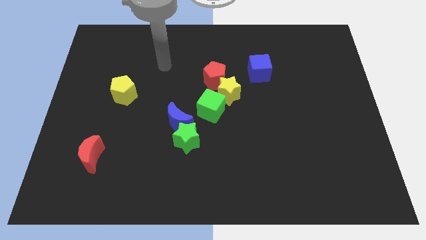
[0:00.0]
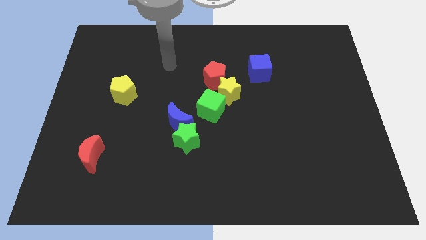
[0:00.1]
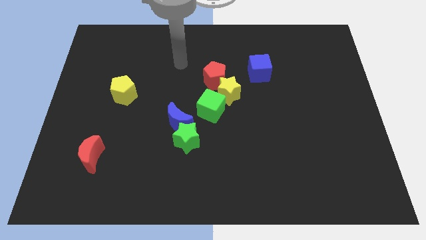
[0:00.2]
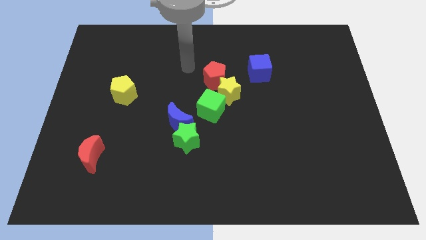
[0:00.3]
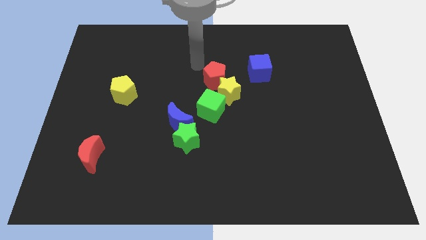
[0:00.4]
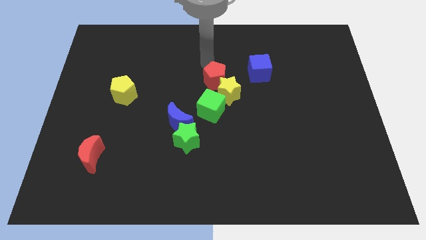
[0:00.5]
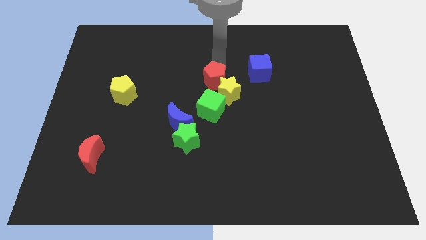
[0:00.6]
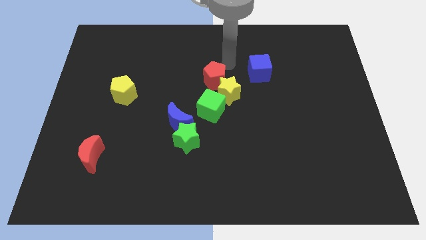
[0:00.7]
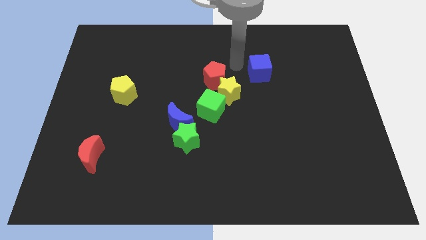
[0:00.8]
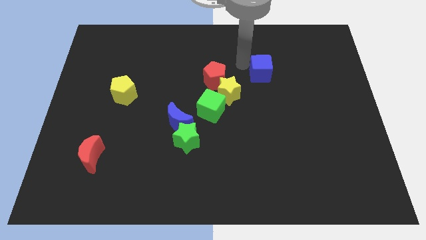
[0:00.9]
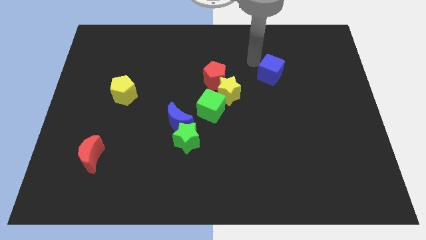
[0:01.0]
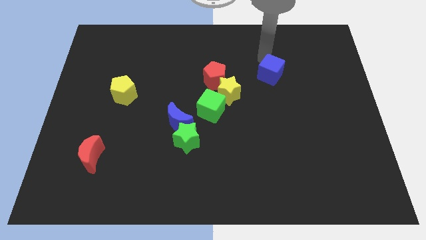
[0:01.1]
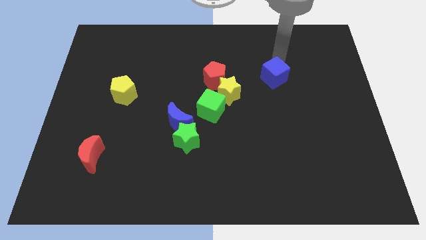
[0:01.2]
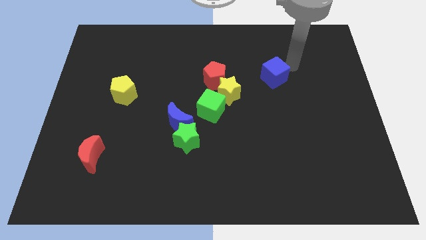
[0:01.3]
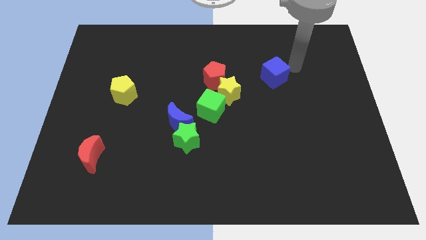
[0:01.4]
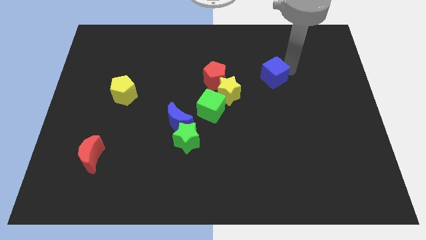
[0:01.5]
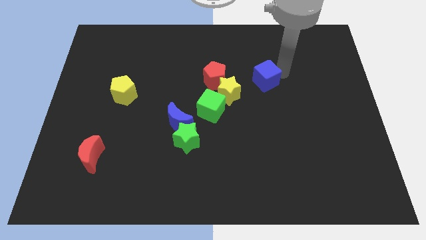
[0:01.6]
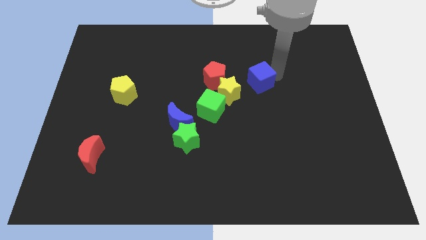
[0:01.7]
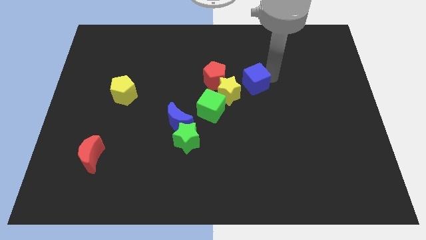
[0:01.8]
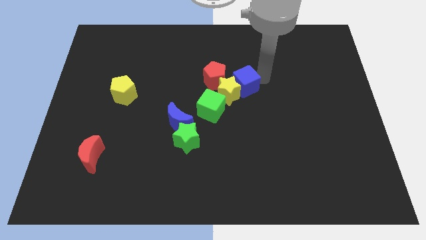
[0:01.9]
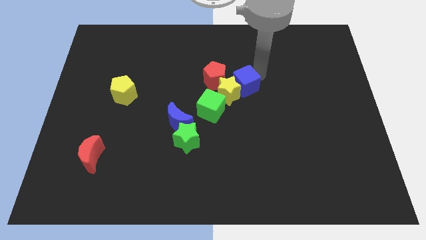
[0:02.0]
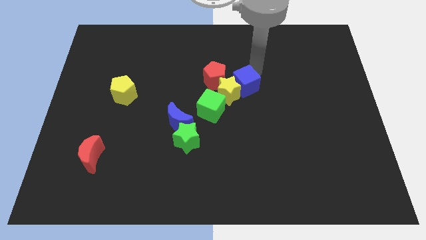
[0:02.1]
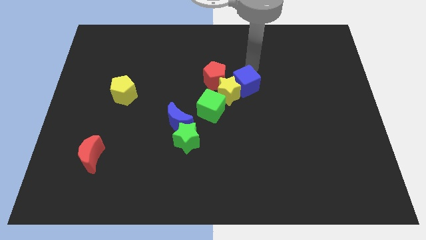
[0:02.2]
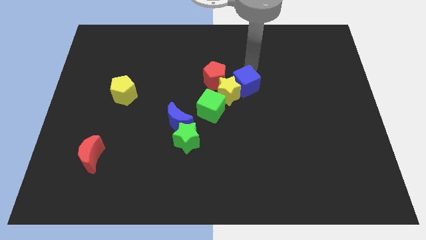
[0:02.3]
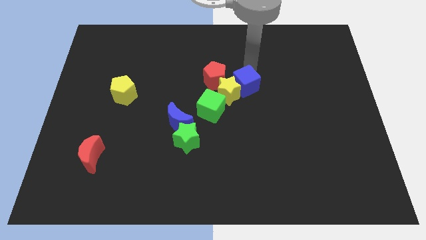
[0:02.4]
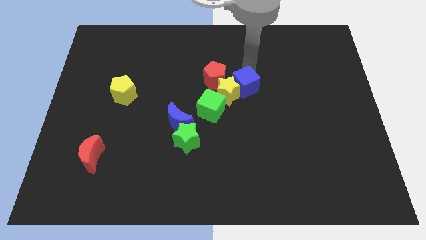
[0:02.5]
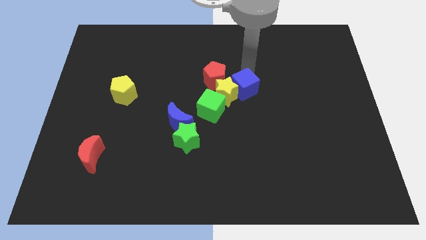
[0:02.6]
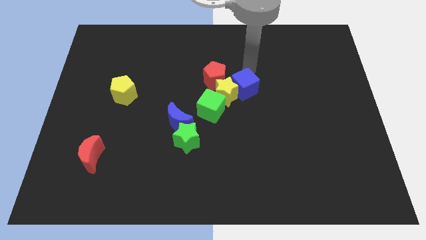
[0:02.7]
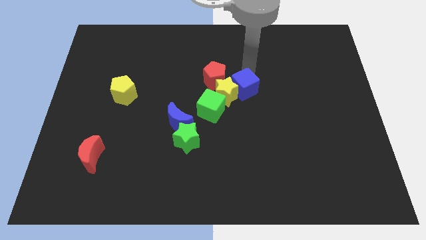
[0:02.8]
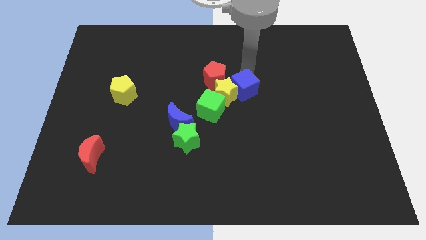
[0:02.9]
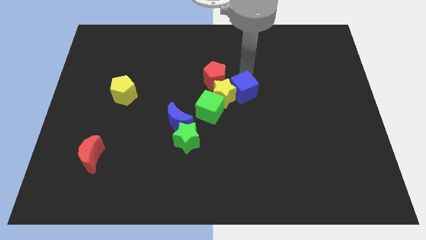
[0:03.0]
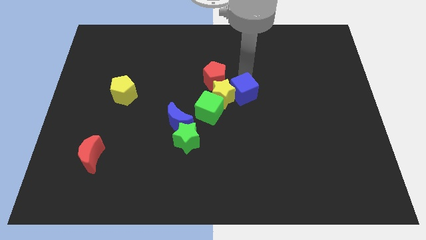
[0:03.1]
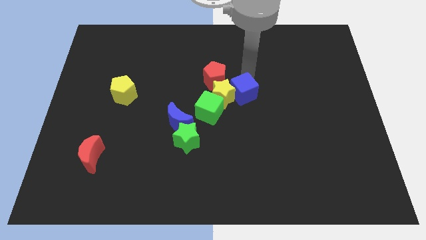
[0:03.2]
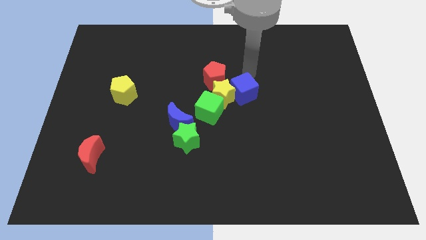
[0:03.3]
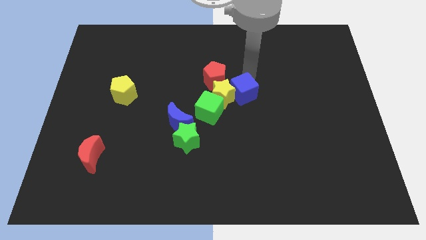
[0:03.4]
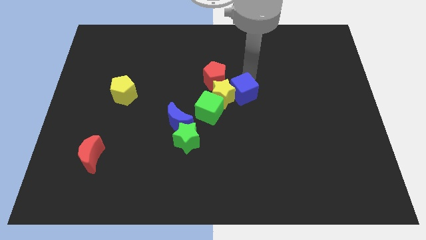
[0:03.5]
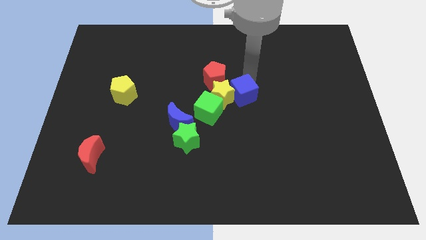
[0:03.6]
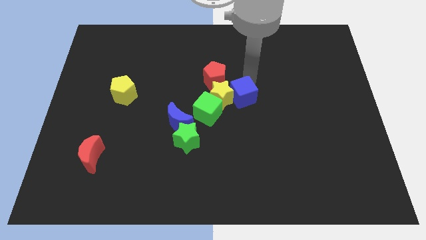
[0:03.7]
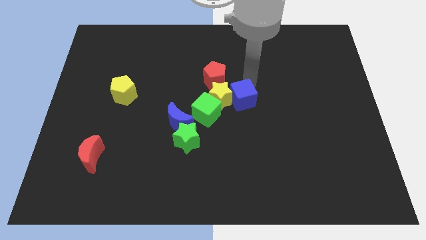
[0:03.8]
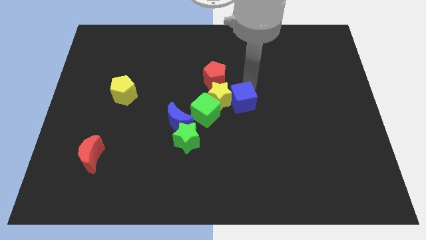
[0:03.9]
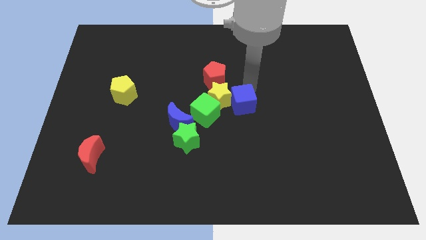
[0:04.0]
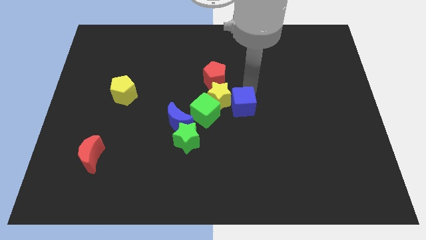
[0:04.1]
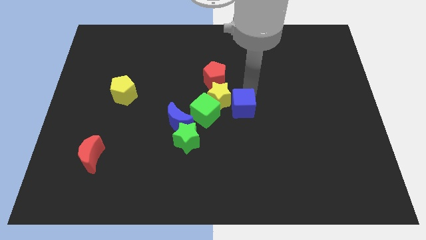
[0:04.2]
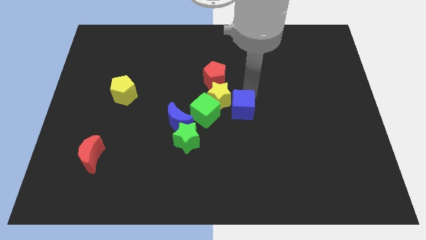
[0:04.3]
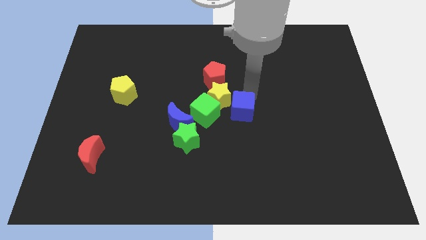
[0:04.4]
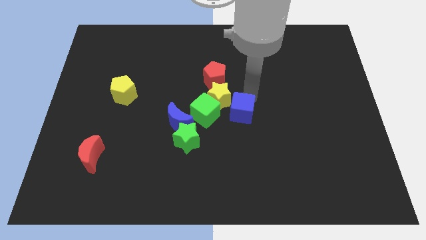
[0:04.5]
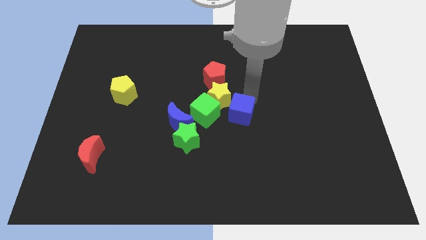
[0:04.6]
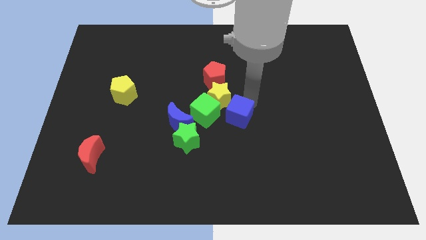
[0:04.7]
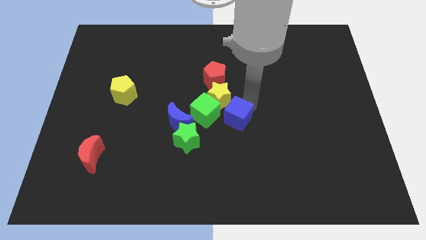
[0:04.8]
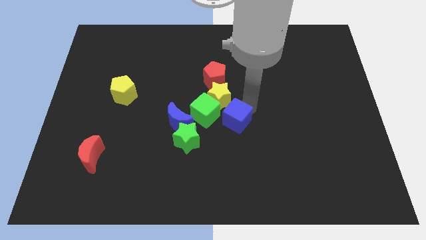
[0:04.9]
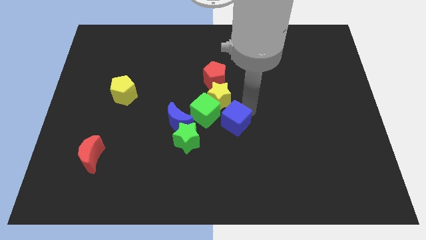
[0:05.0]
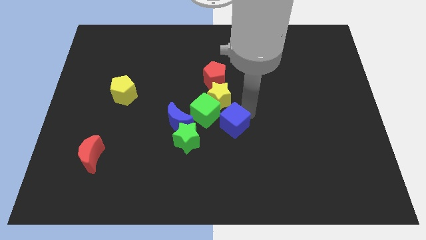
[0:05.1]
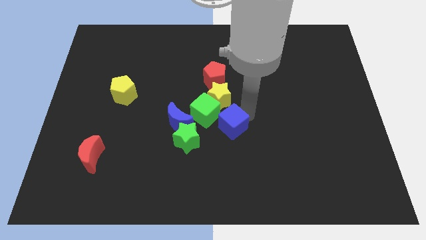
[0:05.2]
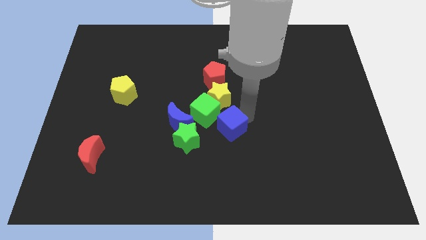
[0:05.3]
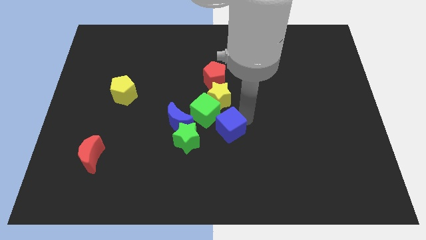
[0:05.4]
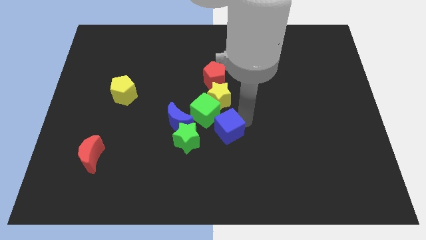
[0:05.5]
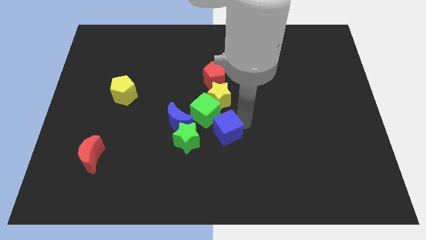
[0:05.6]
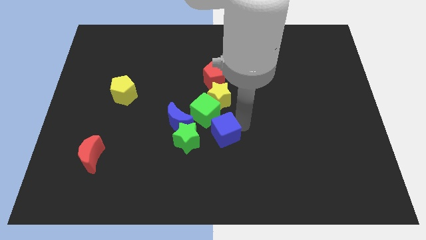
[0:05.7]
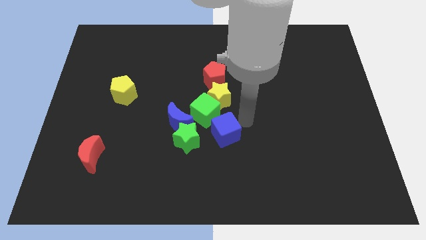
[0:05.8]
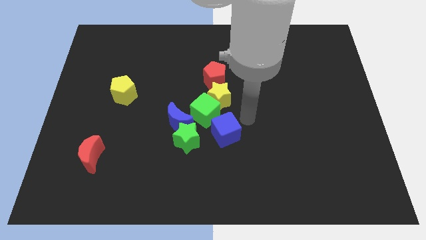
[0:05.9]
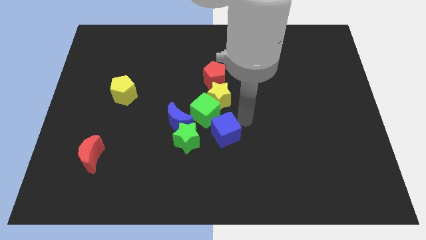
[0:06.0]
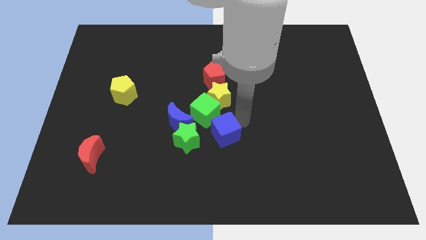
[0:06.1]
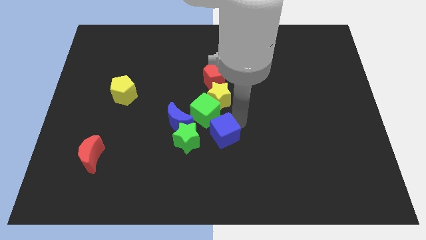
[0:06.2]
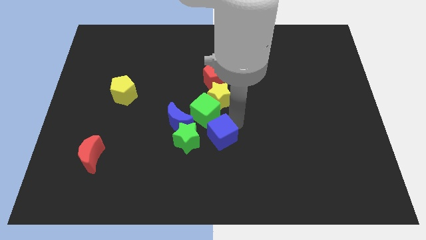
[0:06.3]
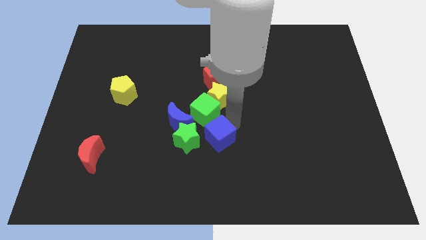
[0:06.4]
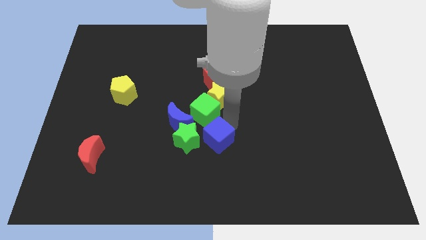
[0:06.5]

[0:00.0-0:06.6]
slide the blue cube down and to the left

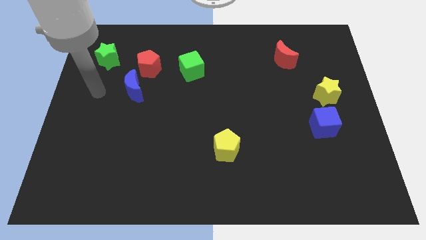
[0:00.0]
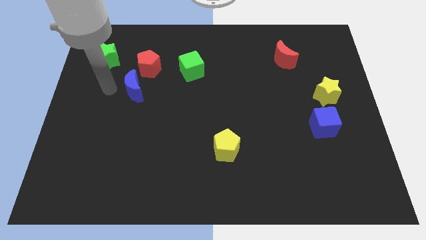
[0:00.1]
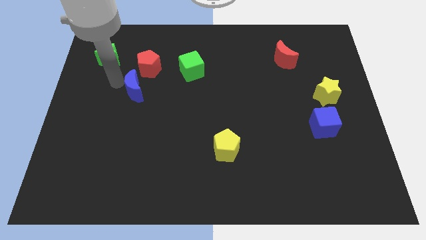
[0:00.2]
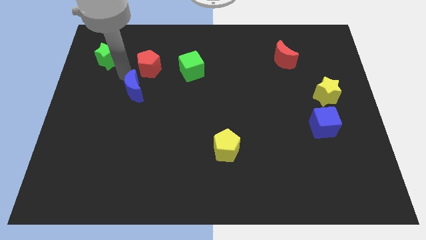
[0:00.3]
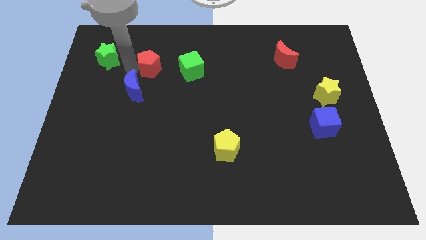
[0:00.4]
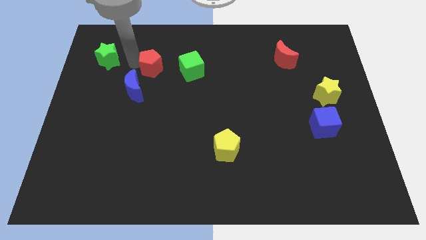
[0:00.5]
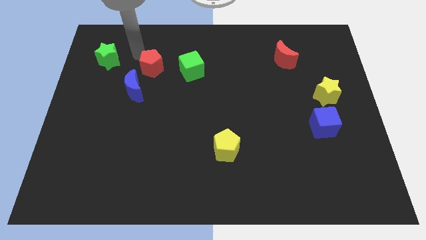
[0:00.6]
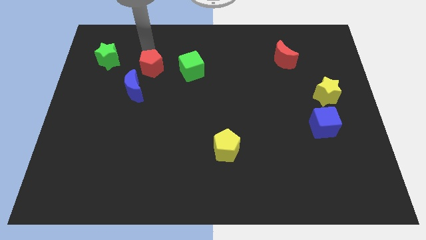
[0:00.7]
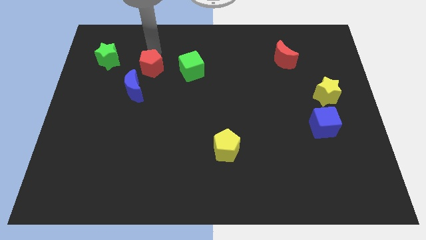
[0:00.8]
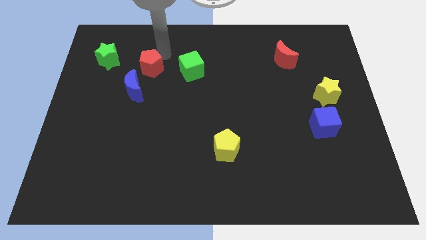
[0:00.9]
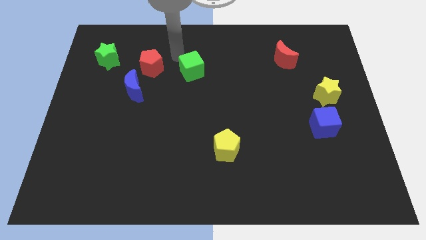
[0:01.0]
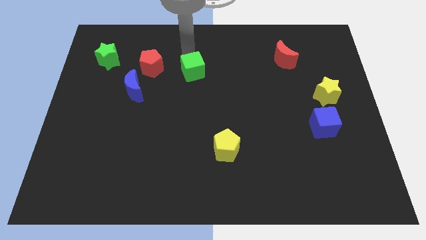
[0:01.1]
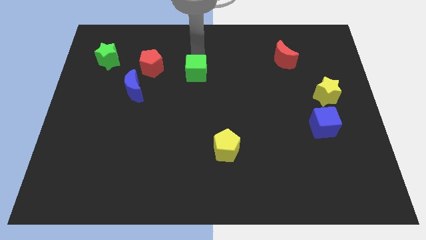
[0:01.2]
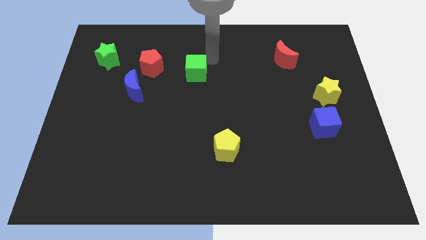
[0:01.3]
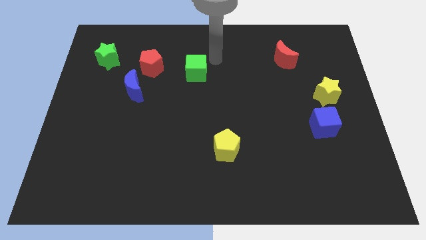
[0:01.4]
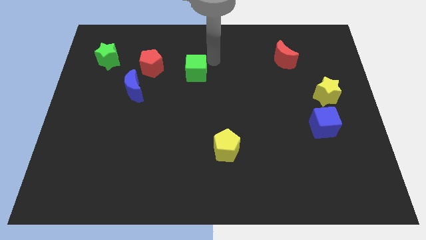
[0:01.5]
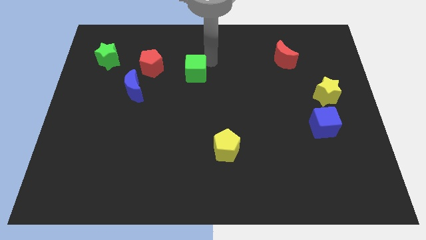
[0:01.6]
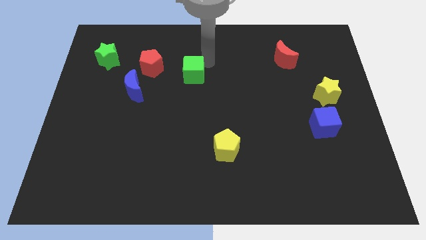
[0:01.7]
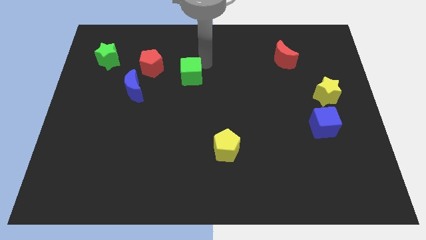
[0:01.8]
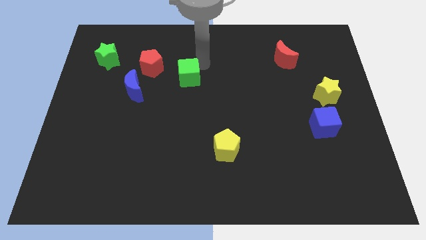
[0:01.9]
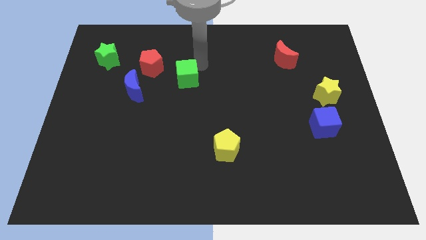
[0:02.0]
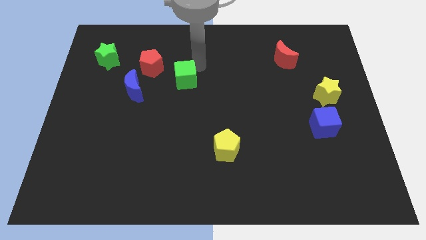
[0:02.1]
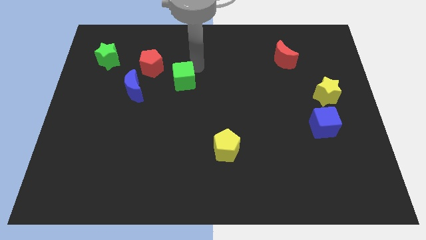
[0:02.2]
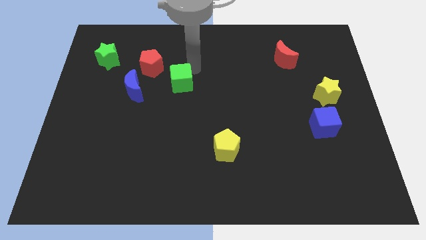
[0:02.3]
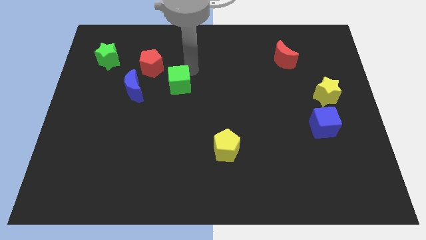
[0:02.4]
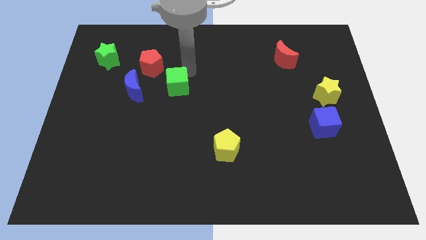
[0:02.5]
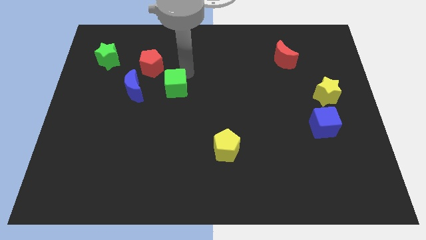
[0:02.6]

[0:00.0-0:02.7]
slide the green cube downwards and left diagonally slightly
